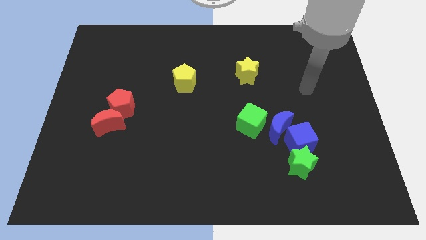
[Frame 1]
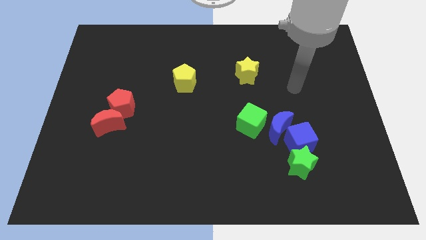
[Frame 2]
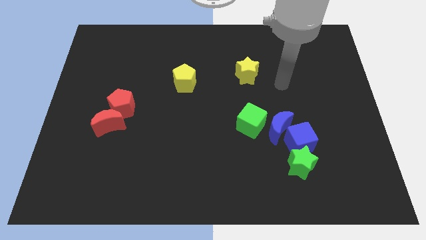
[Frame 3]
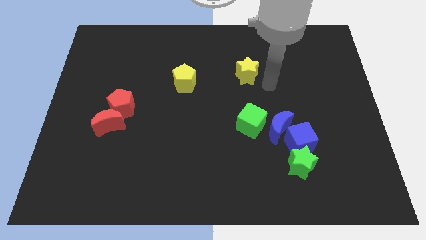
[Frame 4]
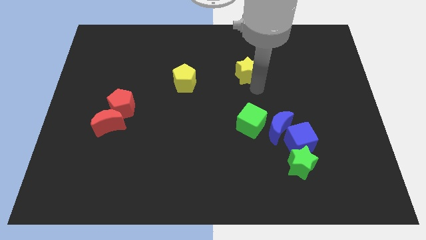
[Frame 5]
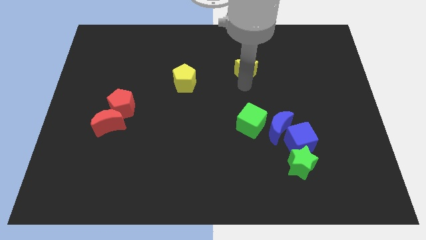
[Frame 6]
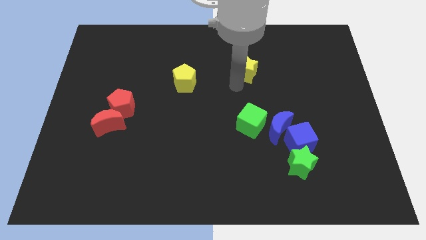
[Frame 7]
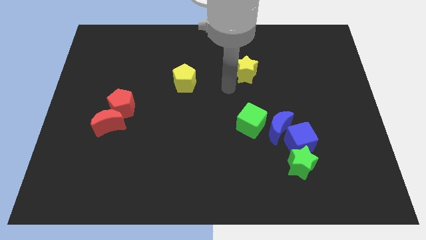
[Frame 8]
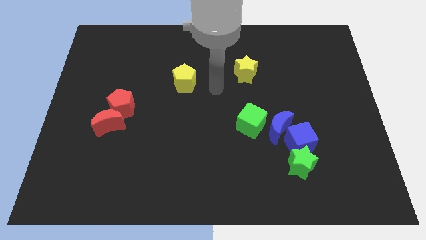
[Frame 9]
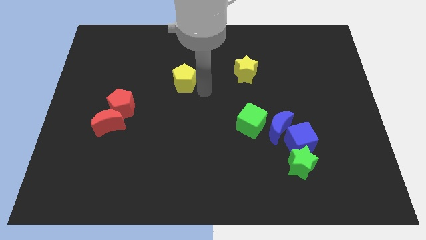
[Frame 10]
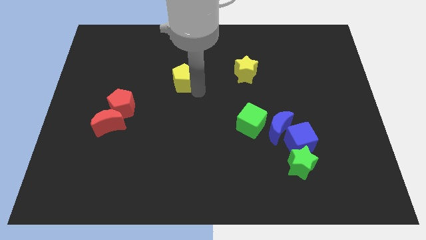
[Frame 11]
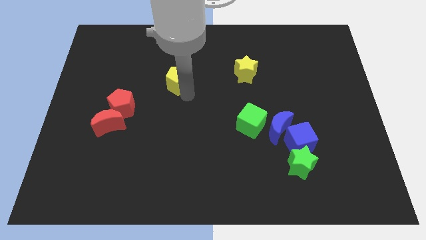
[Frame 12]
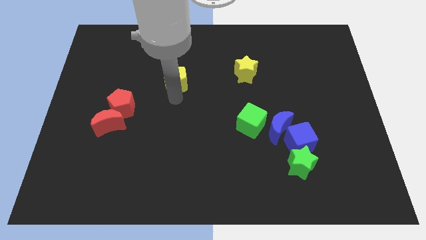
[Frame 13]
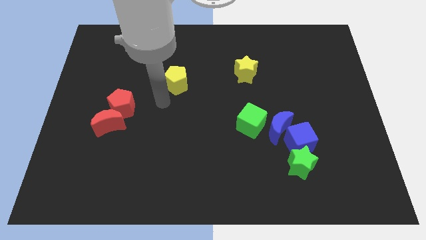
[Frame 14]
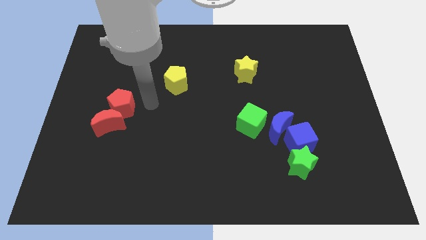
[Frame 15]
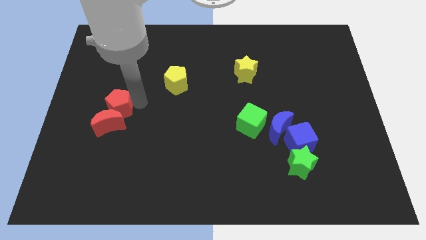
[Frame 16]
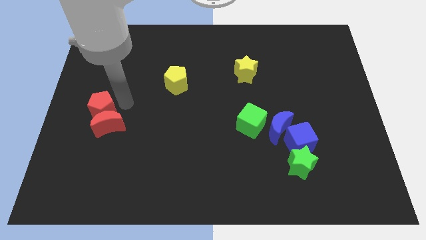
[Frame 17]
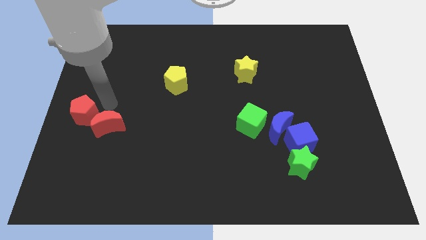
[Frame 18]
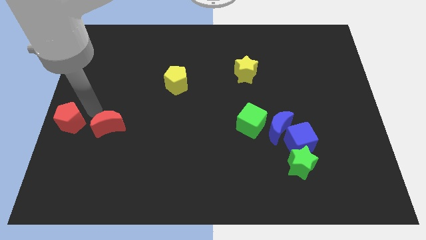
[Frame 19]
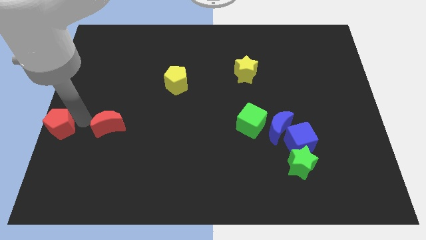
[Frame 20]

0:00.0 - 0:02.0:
separate the red moon from the red pentagon

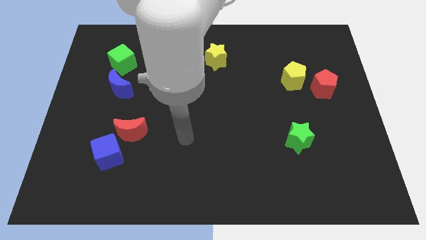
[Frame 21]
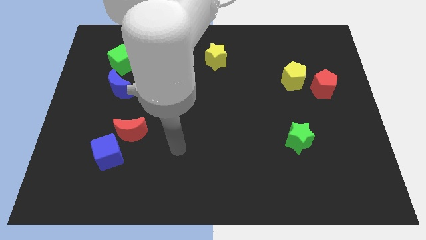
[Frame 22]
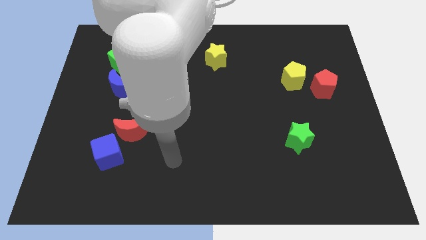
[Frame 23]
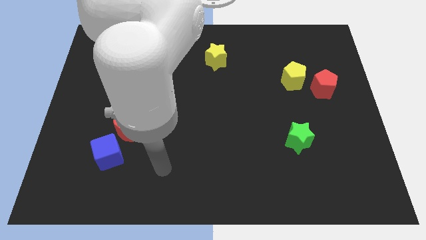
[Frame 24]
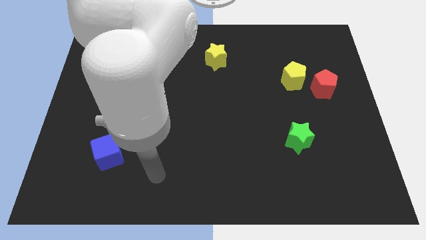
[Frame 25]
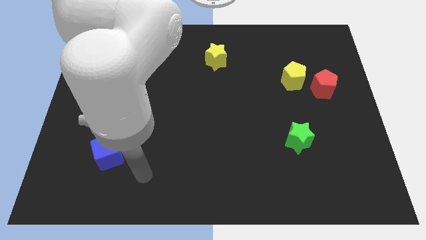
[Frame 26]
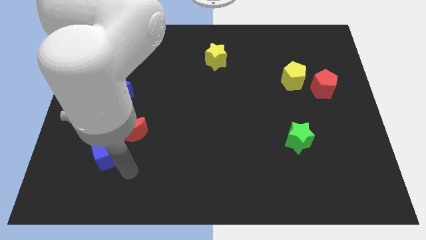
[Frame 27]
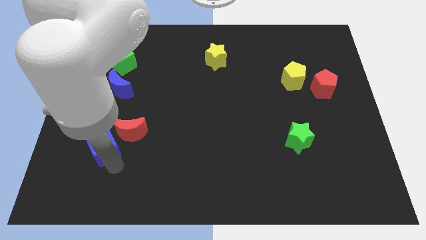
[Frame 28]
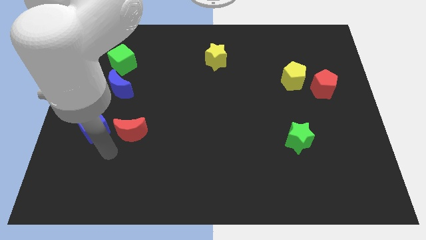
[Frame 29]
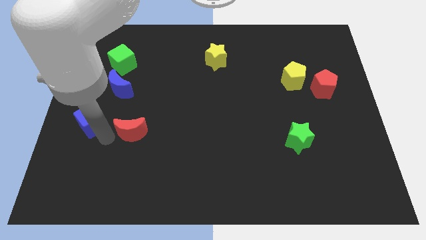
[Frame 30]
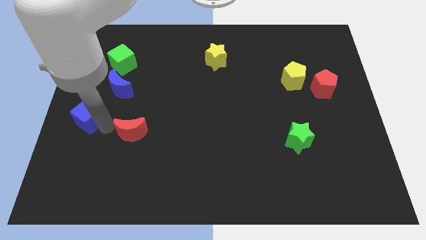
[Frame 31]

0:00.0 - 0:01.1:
pull the red moon apart from the blue cube

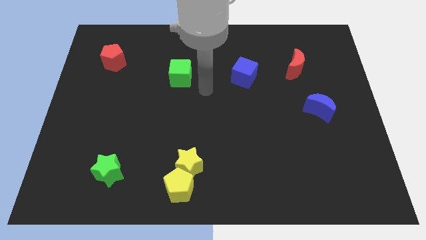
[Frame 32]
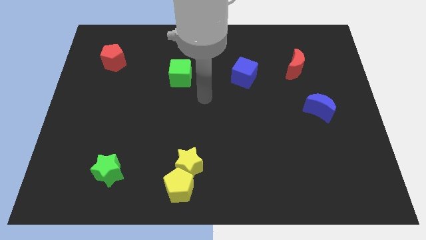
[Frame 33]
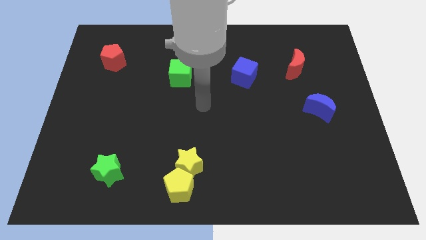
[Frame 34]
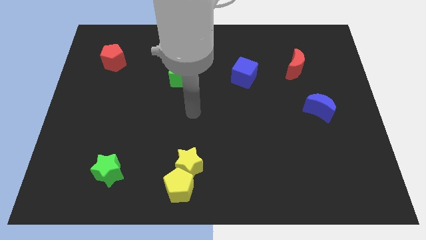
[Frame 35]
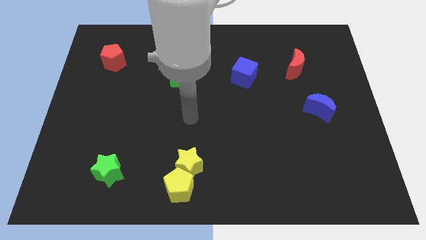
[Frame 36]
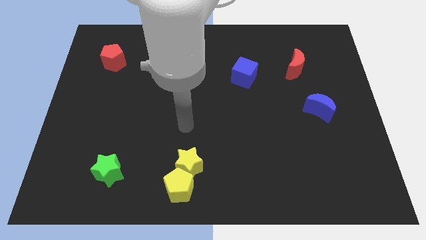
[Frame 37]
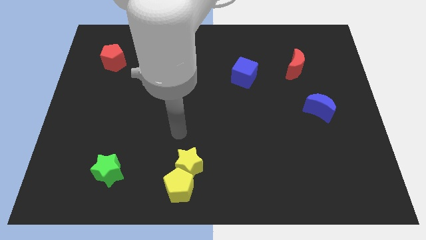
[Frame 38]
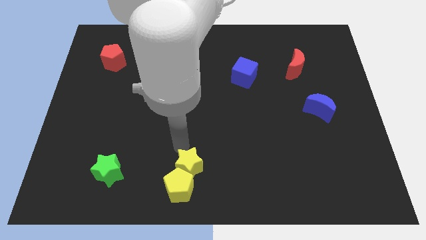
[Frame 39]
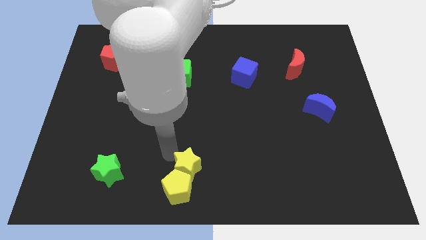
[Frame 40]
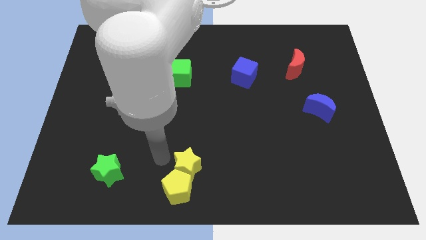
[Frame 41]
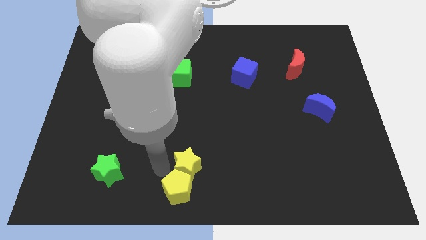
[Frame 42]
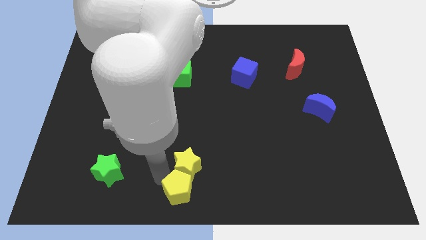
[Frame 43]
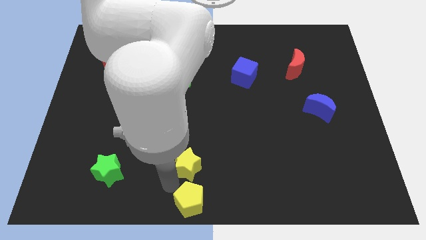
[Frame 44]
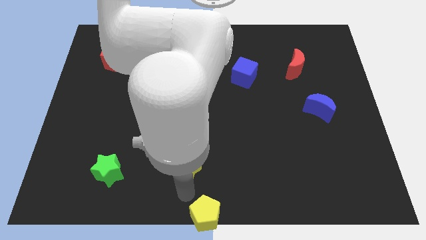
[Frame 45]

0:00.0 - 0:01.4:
pull the yellow star apart from the yellow pentagon

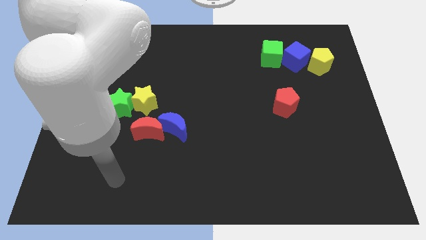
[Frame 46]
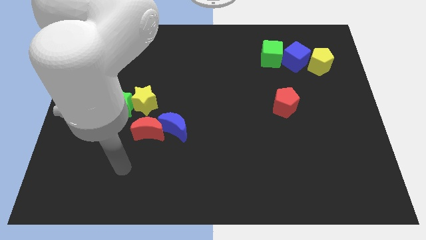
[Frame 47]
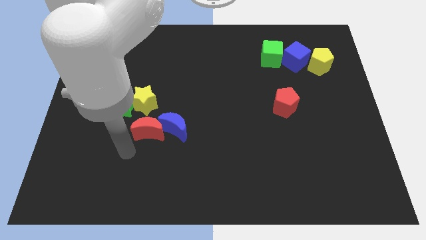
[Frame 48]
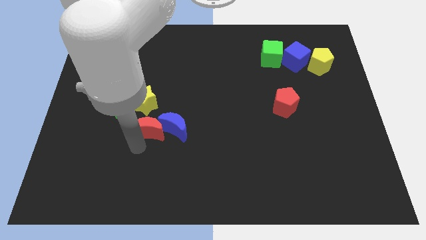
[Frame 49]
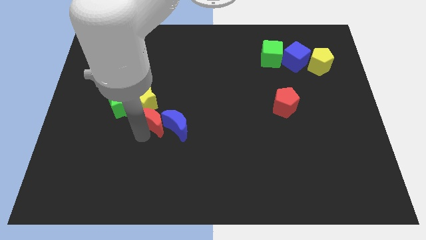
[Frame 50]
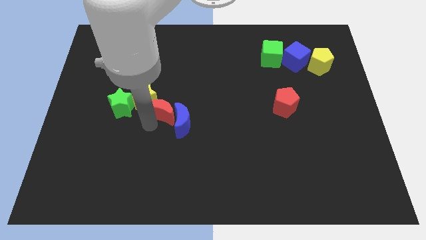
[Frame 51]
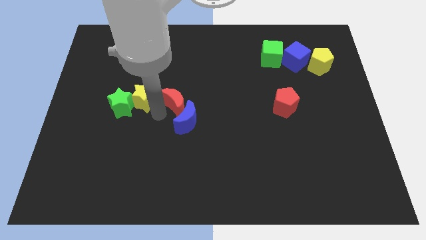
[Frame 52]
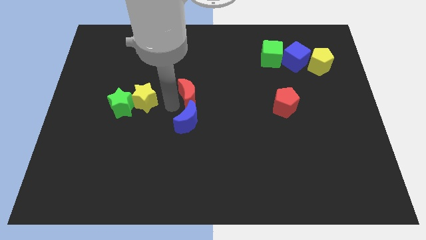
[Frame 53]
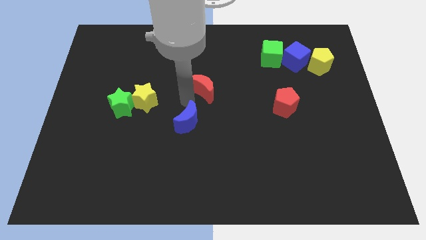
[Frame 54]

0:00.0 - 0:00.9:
move the blue moon away from the red moon

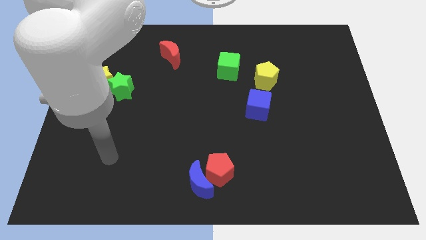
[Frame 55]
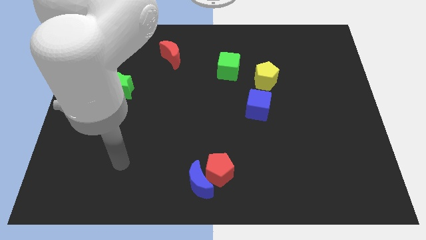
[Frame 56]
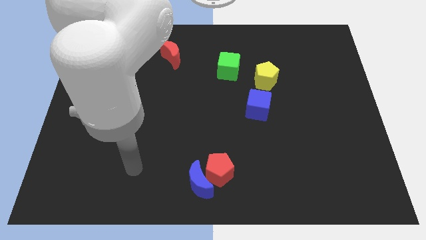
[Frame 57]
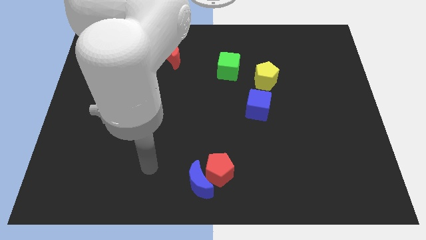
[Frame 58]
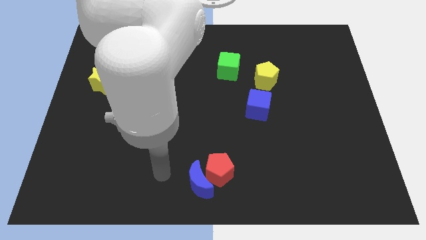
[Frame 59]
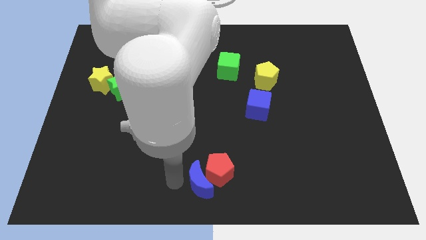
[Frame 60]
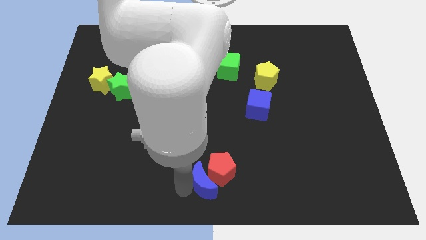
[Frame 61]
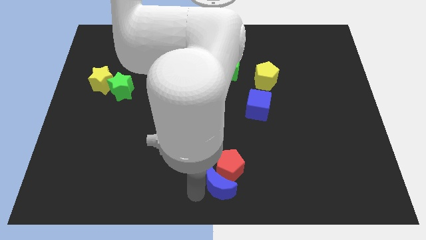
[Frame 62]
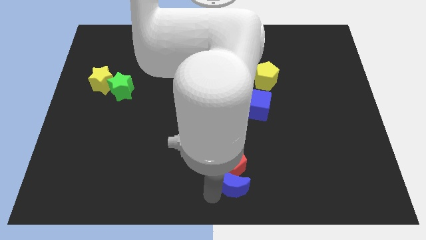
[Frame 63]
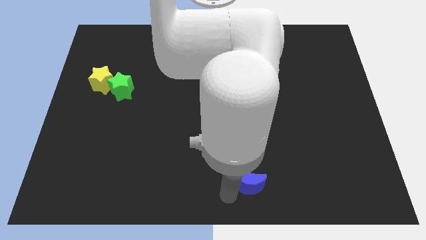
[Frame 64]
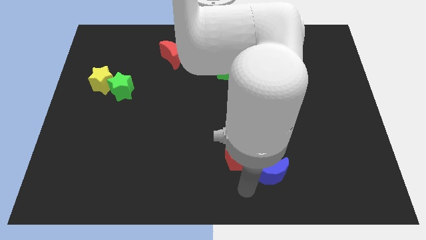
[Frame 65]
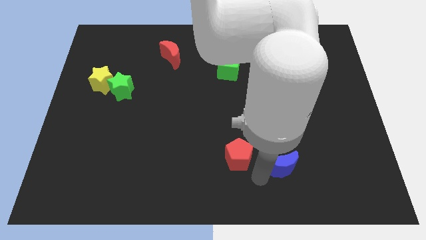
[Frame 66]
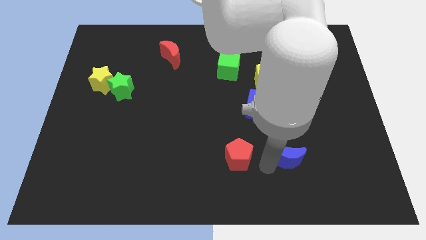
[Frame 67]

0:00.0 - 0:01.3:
separate the red pentagon from the blue moon

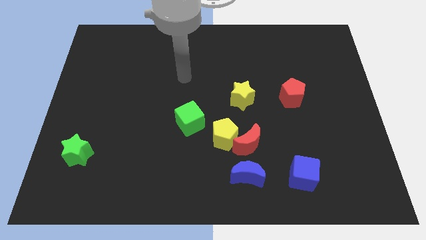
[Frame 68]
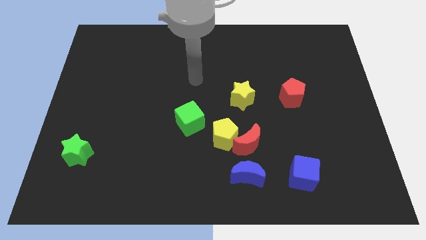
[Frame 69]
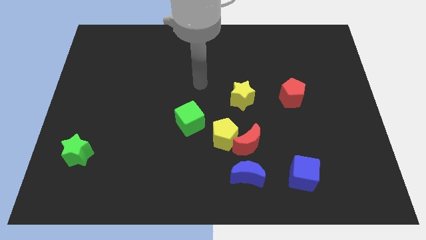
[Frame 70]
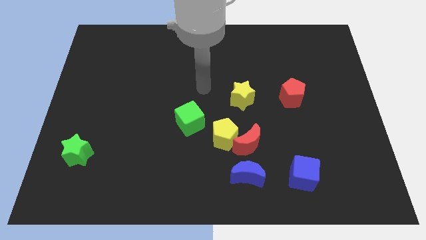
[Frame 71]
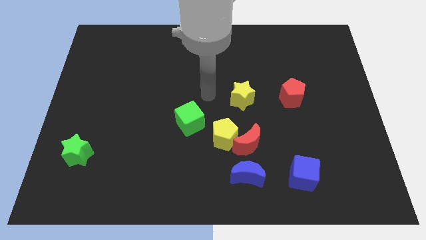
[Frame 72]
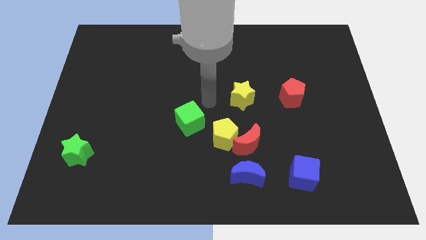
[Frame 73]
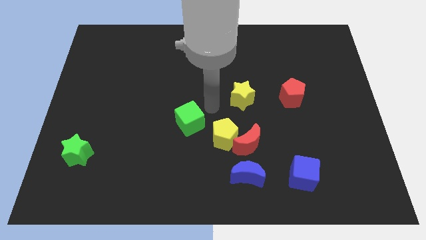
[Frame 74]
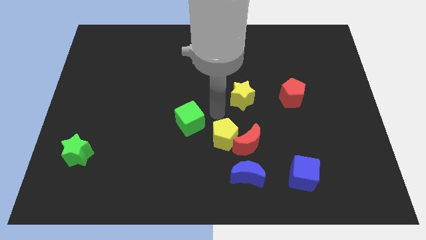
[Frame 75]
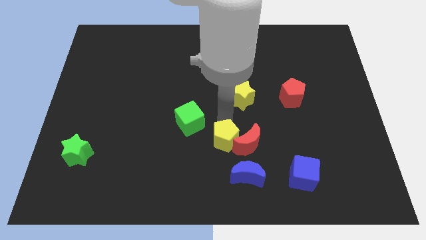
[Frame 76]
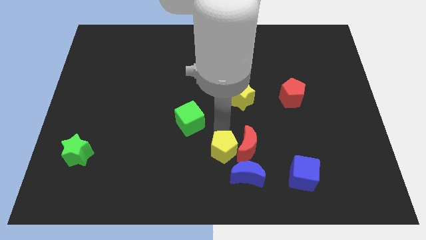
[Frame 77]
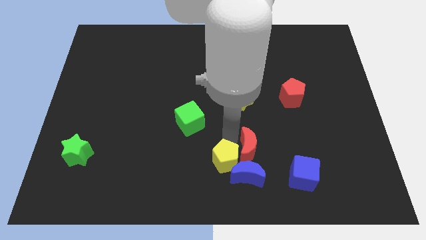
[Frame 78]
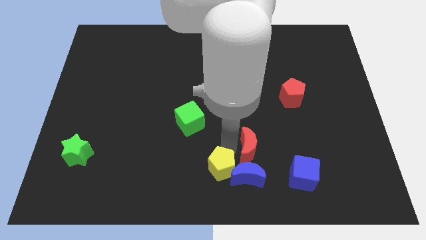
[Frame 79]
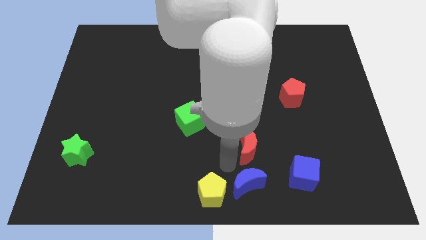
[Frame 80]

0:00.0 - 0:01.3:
move the red moon away from the yellow pentagon and blue moon

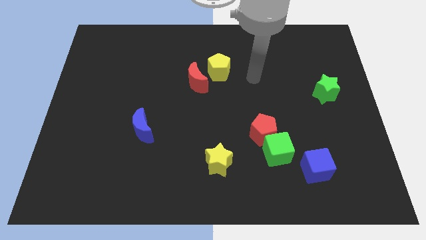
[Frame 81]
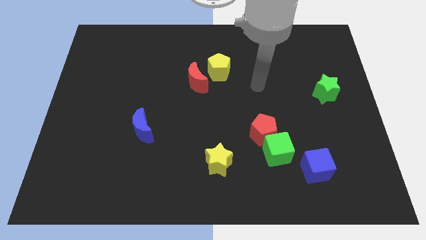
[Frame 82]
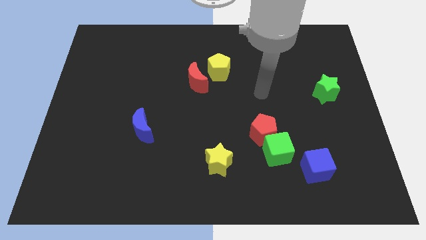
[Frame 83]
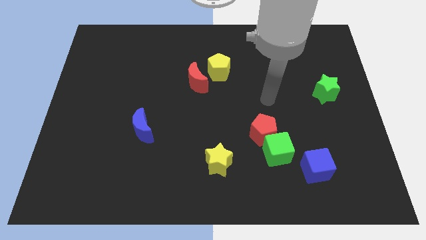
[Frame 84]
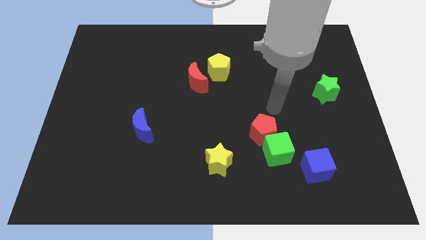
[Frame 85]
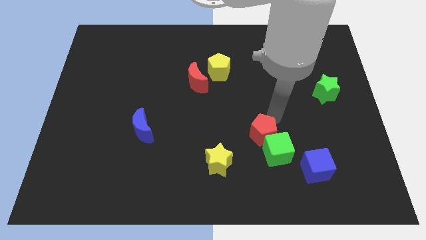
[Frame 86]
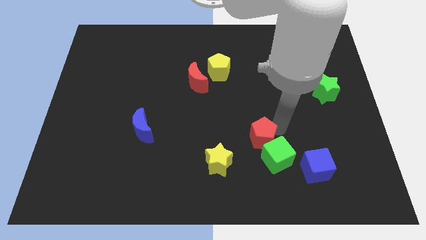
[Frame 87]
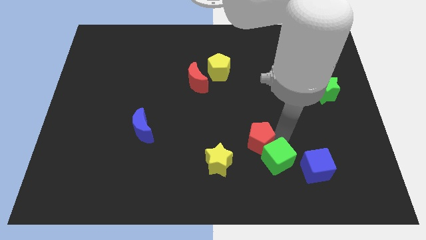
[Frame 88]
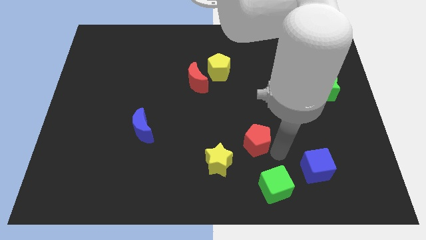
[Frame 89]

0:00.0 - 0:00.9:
separate the red pentagon from the green cube

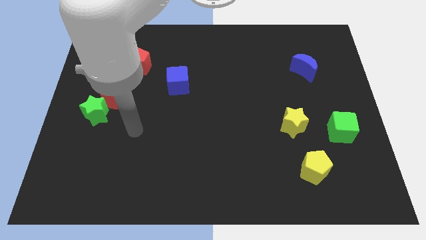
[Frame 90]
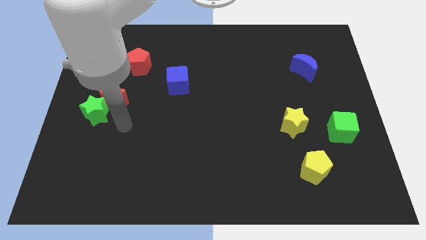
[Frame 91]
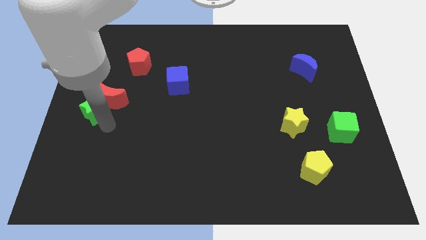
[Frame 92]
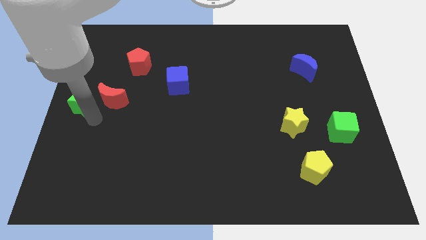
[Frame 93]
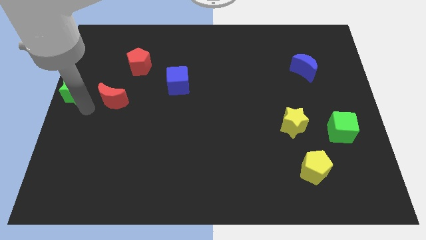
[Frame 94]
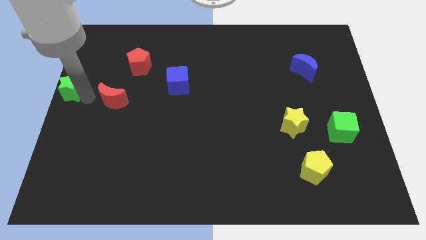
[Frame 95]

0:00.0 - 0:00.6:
separate the red moon from the green star
